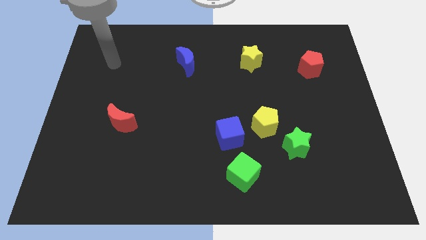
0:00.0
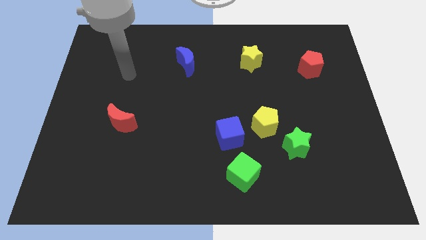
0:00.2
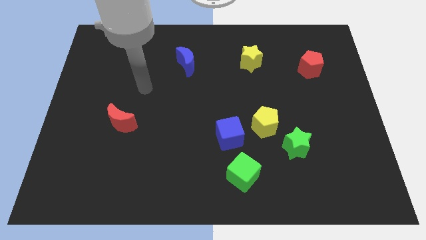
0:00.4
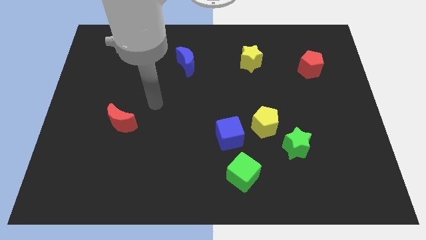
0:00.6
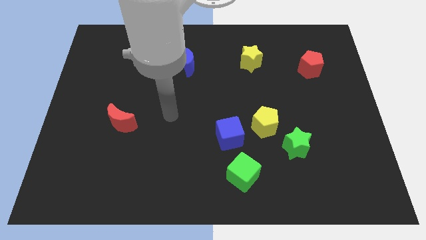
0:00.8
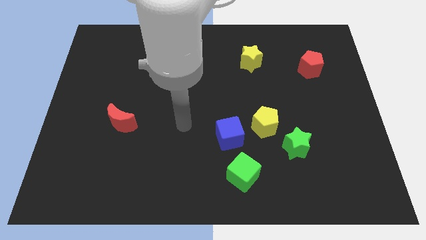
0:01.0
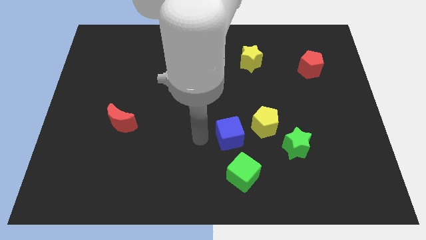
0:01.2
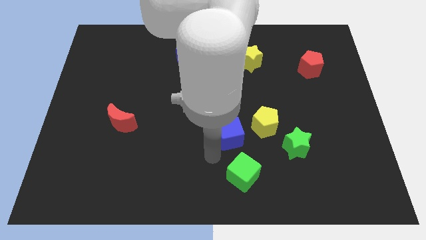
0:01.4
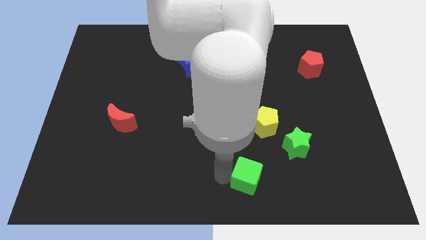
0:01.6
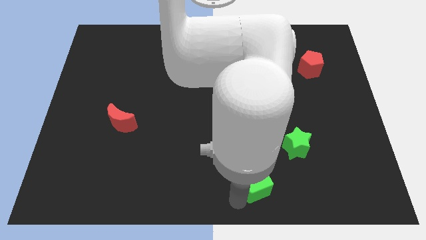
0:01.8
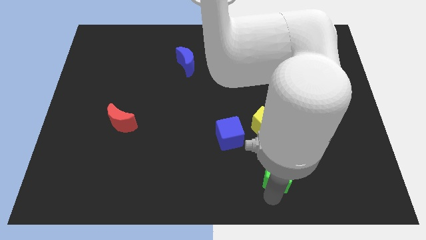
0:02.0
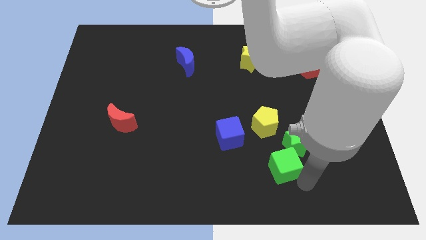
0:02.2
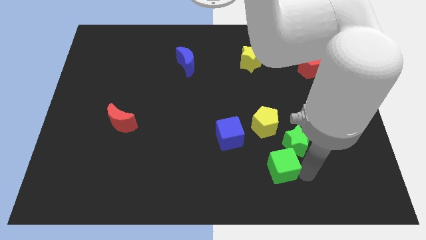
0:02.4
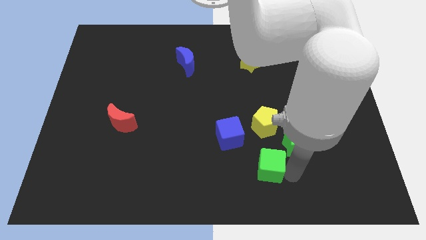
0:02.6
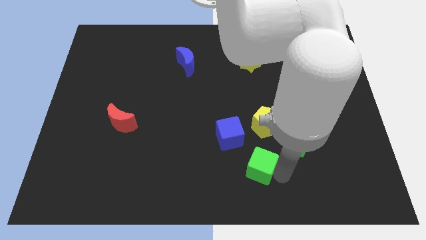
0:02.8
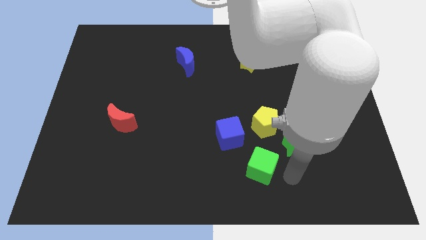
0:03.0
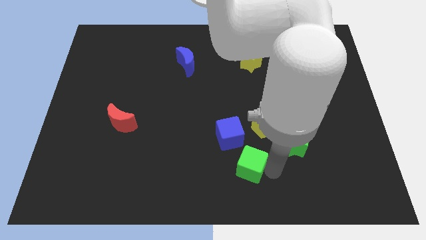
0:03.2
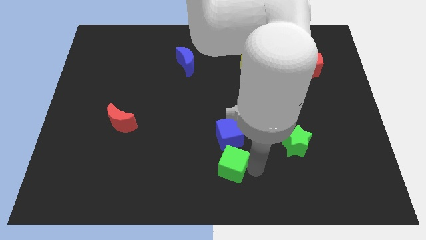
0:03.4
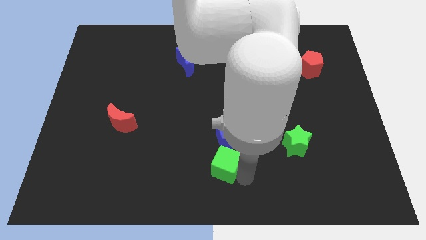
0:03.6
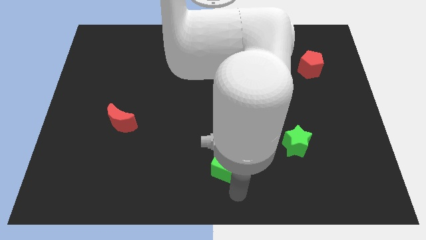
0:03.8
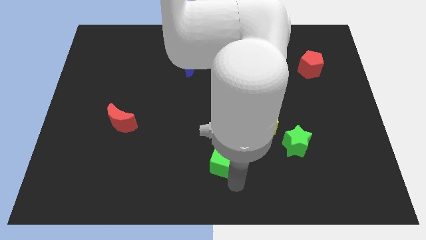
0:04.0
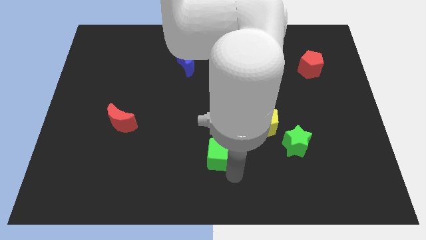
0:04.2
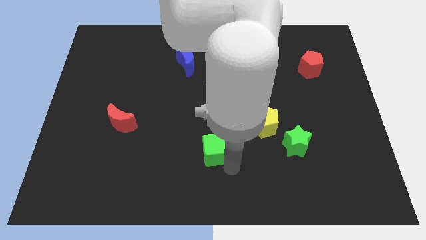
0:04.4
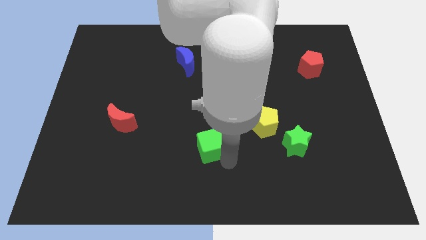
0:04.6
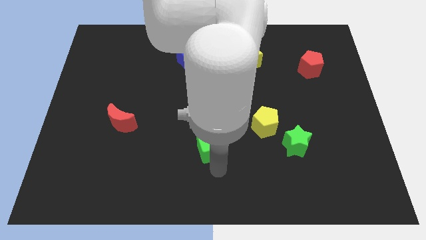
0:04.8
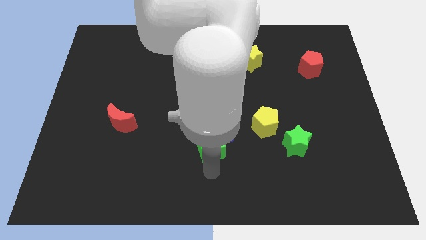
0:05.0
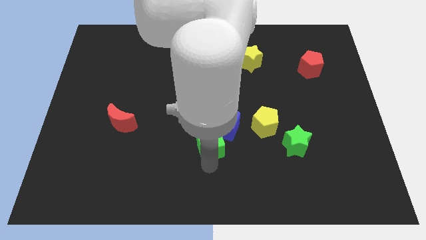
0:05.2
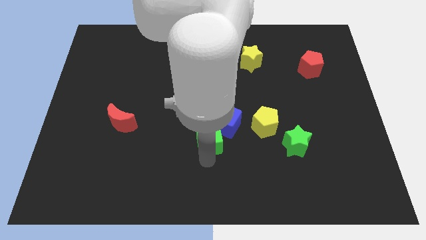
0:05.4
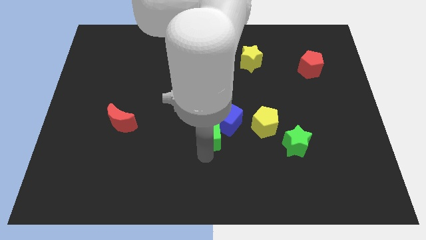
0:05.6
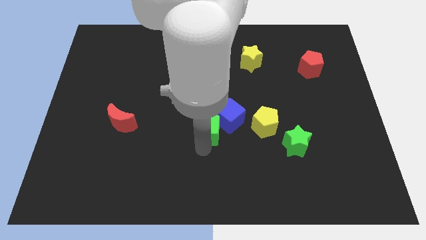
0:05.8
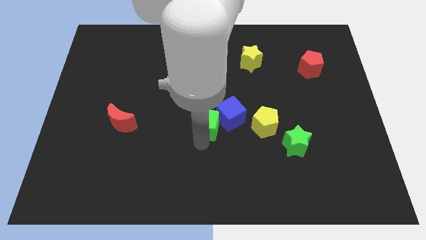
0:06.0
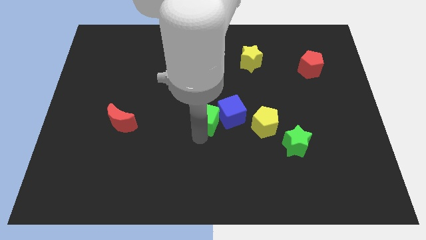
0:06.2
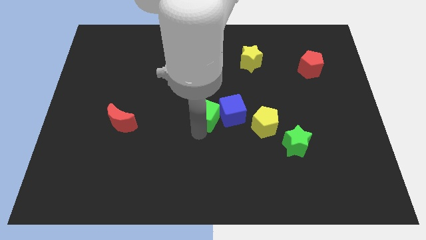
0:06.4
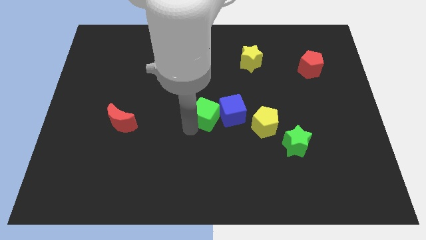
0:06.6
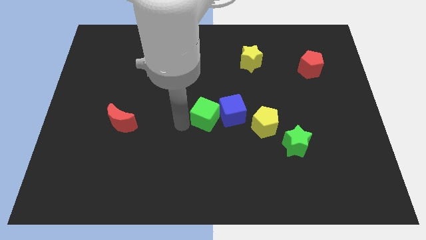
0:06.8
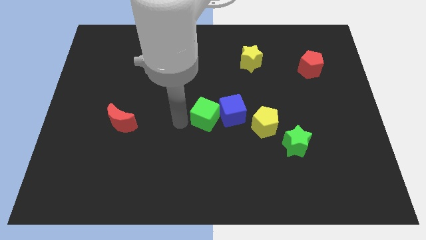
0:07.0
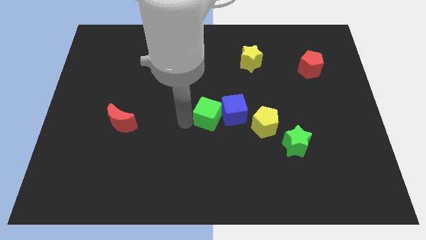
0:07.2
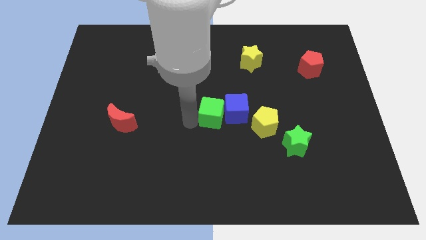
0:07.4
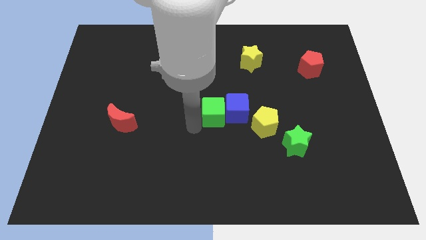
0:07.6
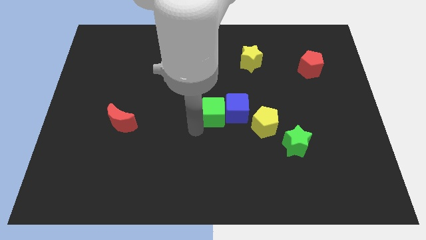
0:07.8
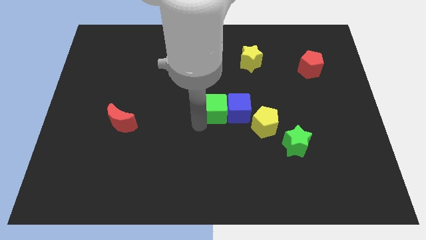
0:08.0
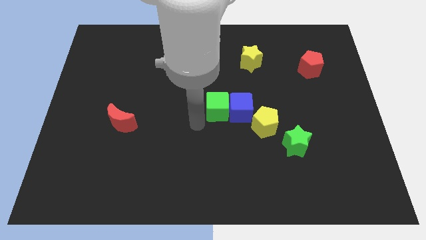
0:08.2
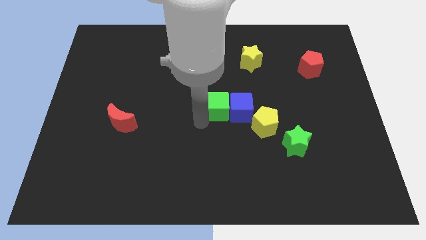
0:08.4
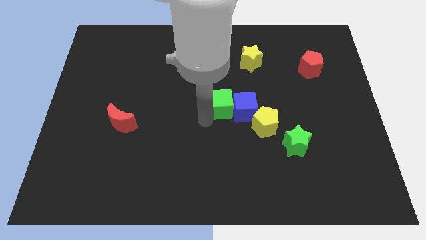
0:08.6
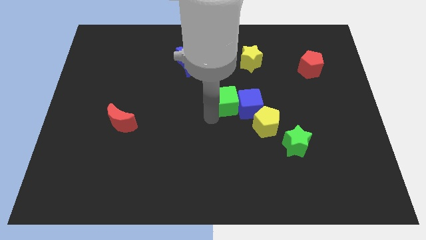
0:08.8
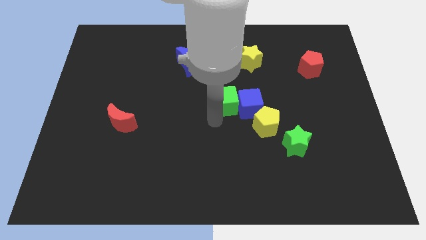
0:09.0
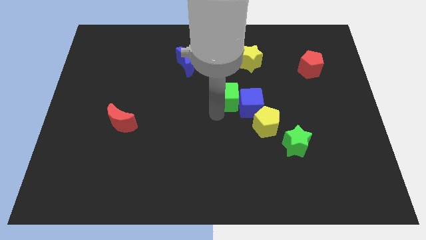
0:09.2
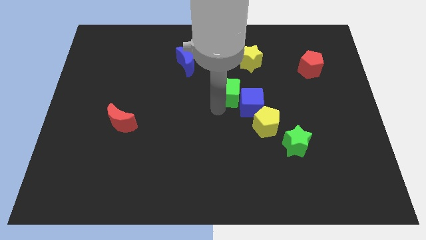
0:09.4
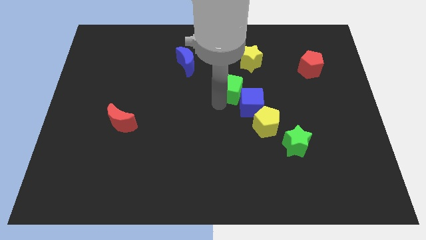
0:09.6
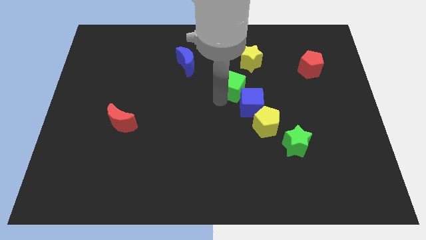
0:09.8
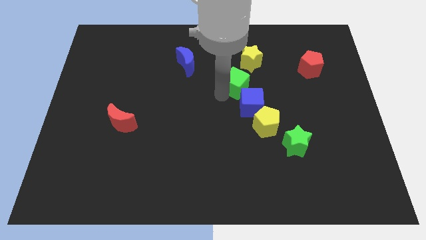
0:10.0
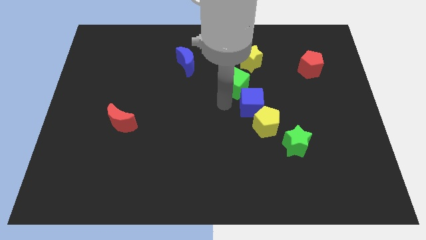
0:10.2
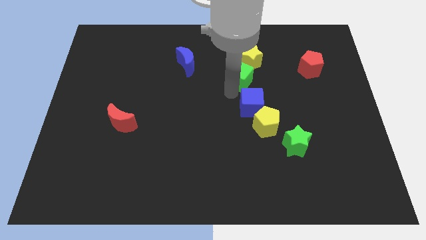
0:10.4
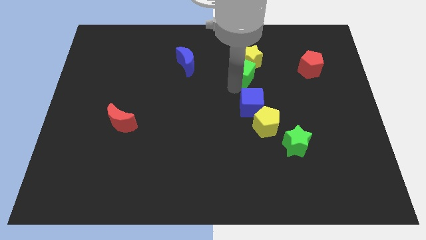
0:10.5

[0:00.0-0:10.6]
push the green cube to the yellow star

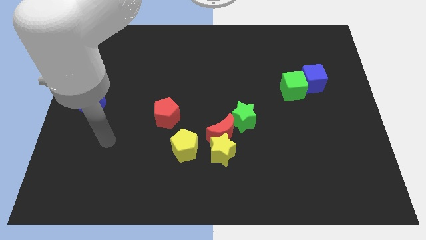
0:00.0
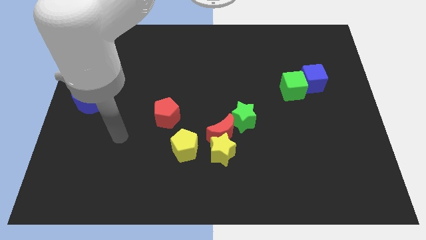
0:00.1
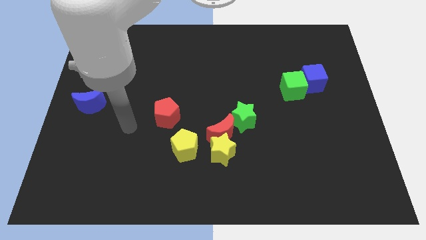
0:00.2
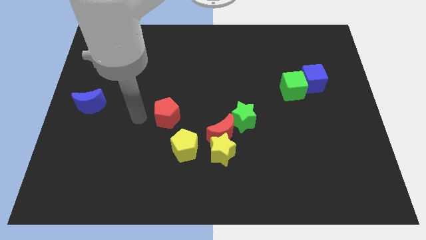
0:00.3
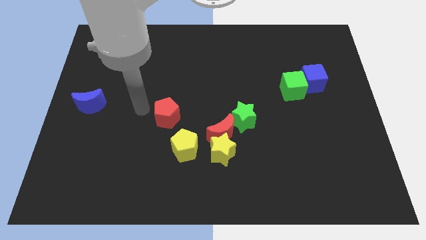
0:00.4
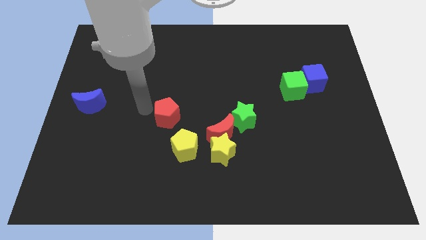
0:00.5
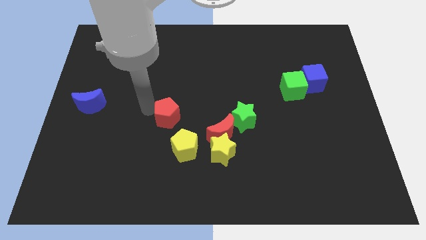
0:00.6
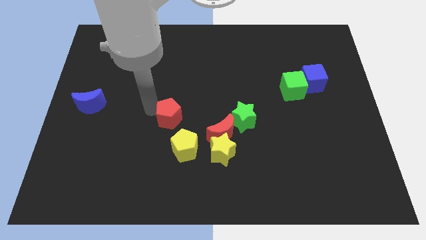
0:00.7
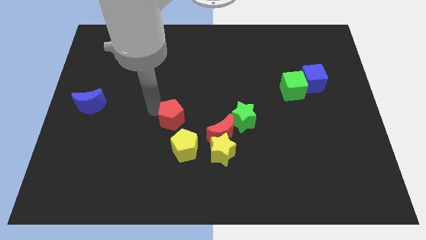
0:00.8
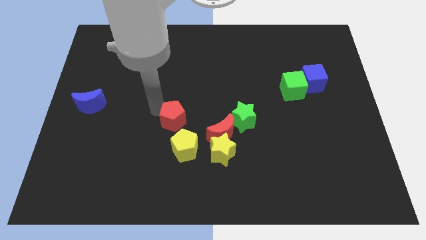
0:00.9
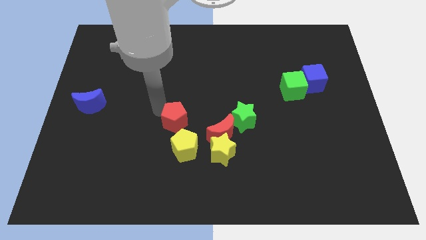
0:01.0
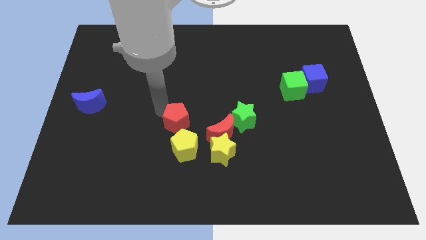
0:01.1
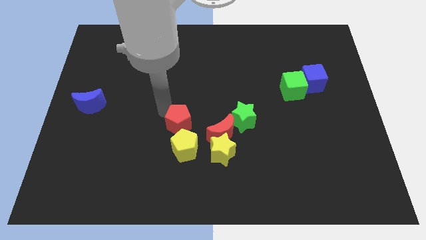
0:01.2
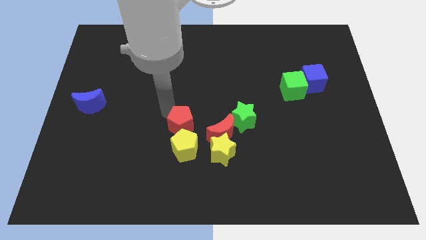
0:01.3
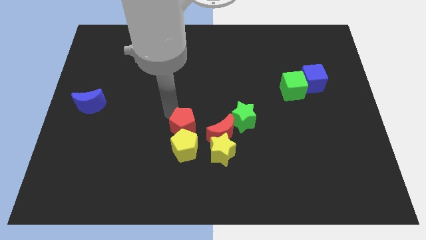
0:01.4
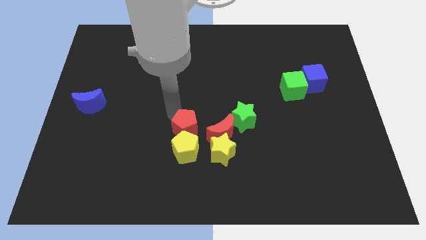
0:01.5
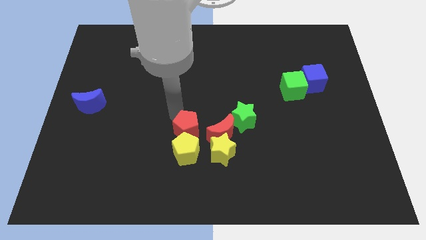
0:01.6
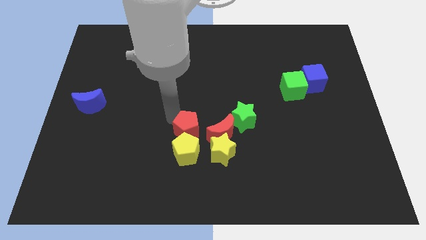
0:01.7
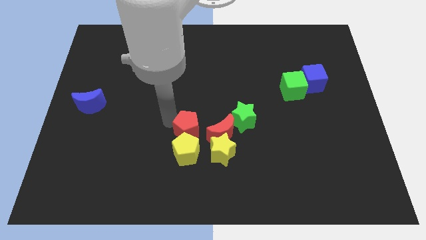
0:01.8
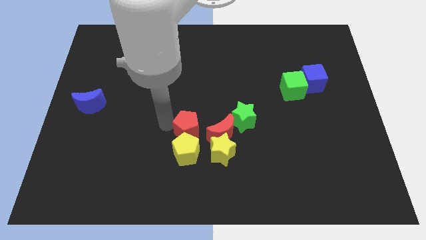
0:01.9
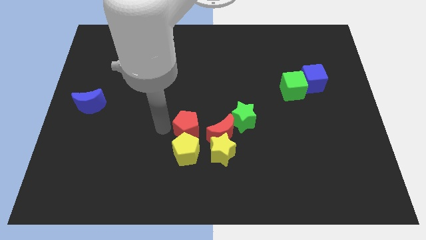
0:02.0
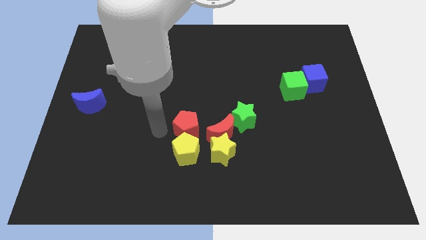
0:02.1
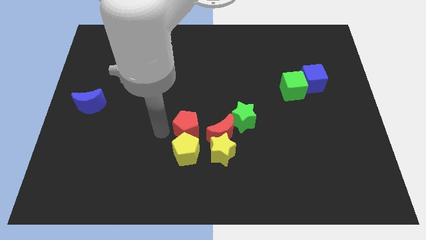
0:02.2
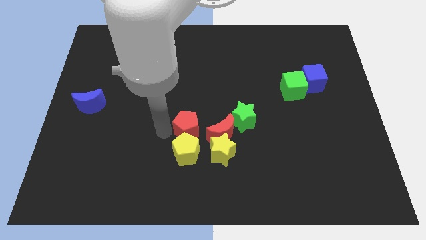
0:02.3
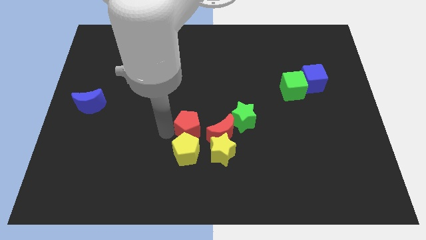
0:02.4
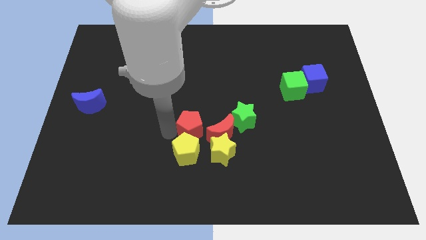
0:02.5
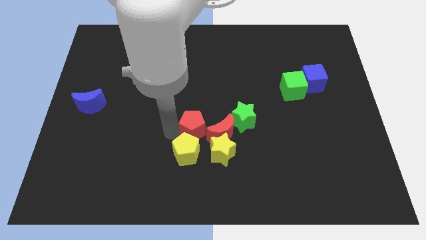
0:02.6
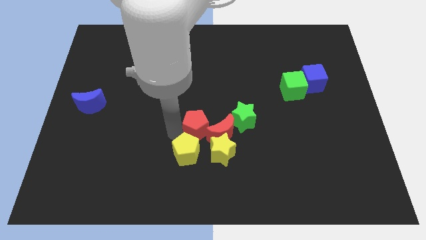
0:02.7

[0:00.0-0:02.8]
slide the red pentagon to the red moon
